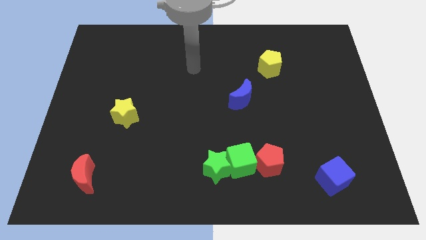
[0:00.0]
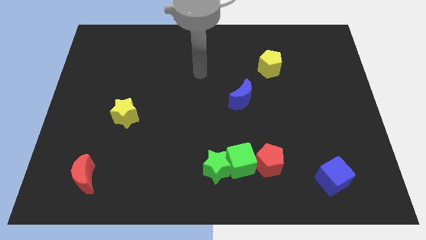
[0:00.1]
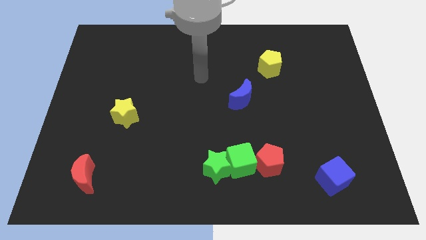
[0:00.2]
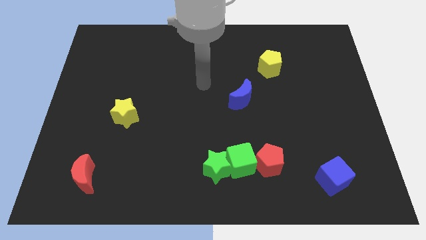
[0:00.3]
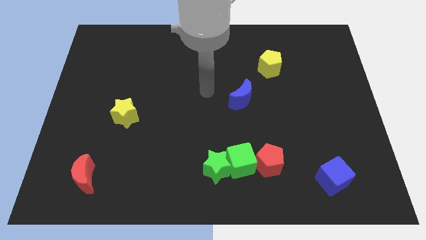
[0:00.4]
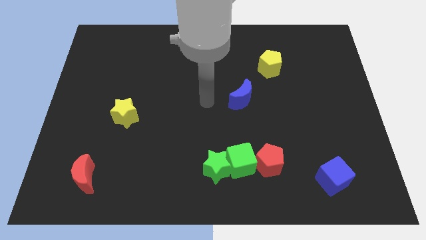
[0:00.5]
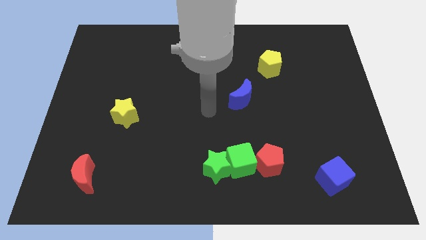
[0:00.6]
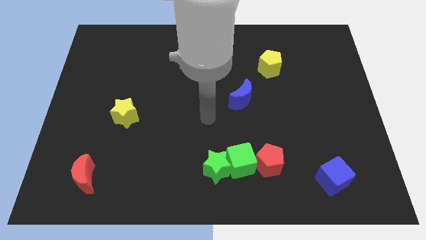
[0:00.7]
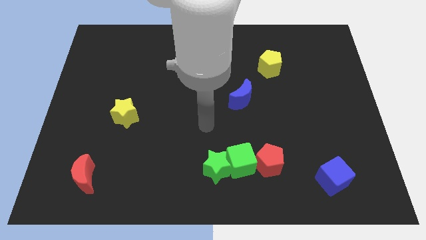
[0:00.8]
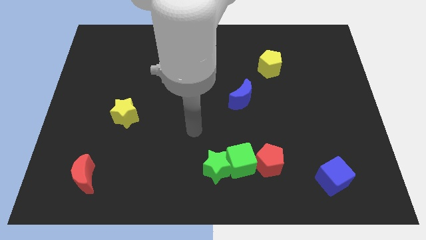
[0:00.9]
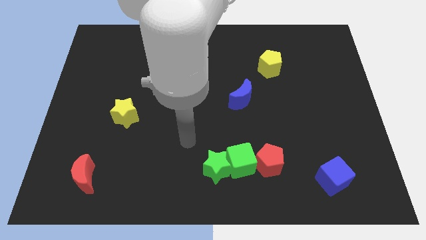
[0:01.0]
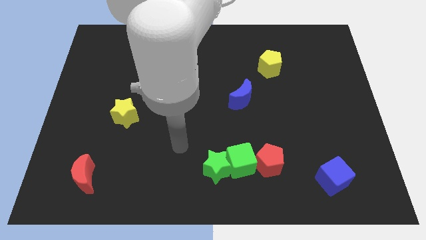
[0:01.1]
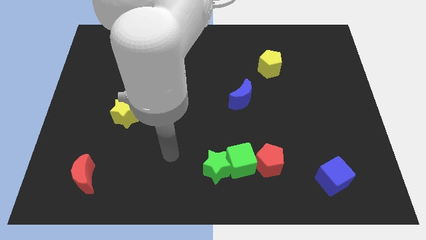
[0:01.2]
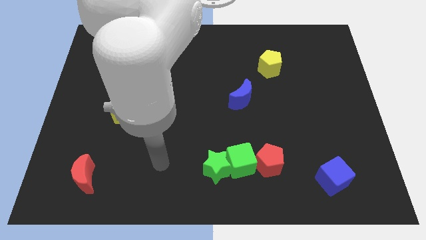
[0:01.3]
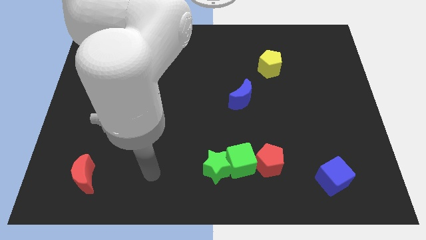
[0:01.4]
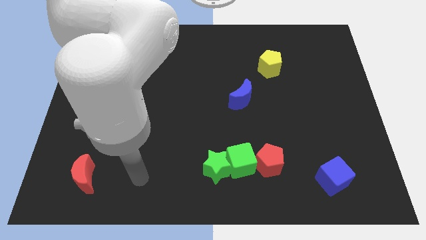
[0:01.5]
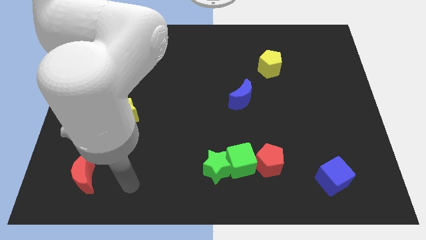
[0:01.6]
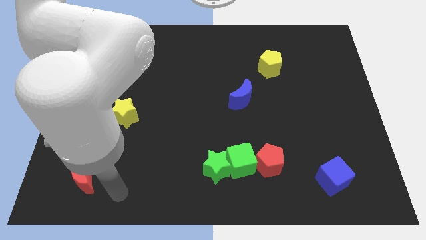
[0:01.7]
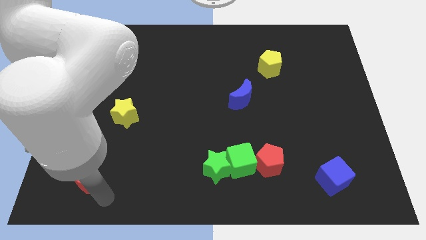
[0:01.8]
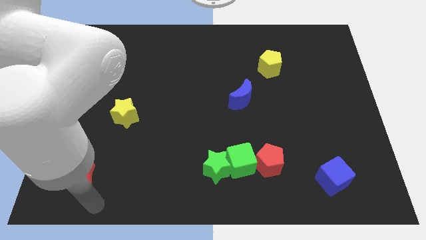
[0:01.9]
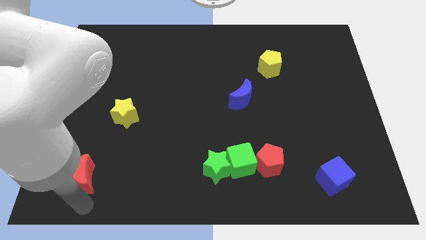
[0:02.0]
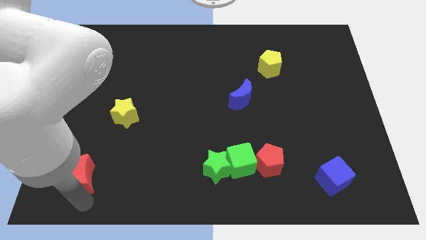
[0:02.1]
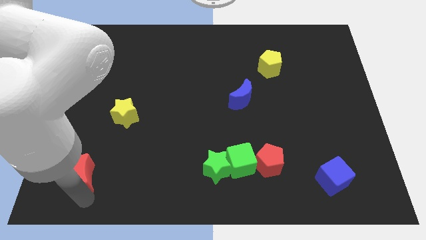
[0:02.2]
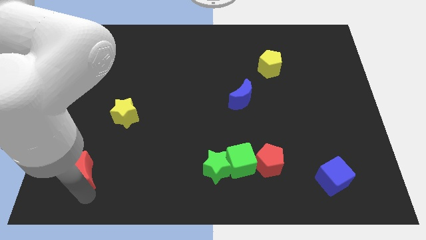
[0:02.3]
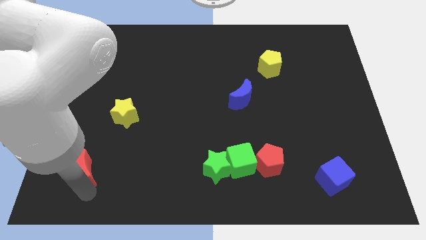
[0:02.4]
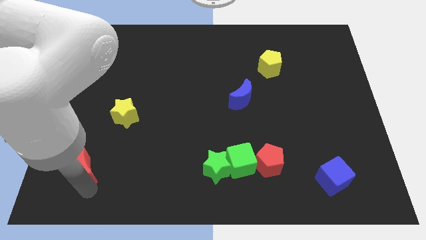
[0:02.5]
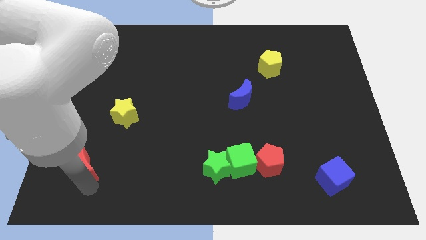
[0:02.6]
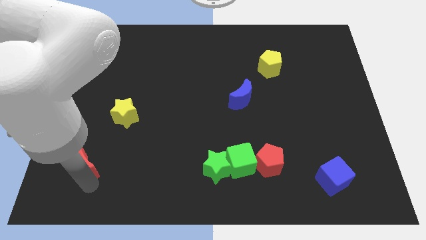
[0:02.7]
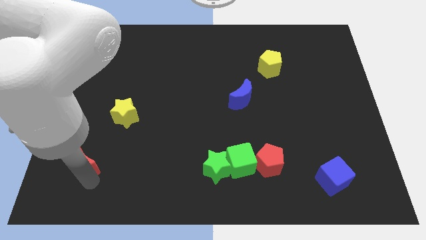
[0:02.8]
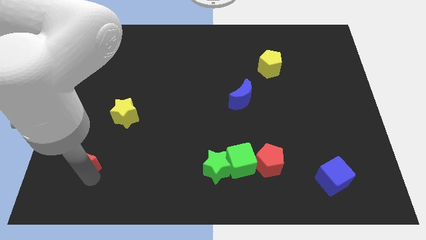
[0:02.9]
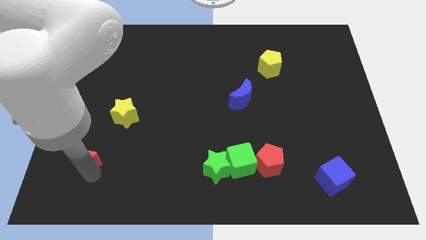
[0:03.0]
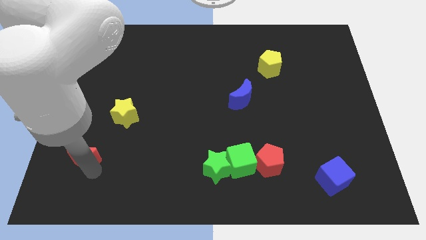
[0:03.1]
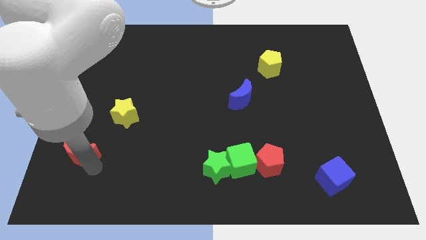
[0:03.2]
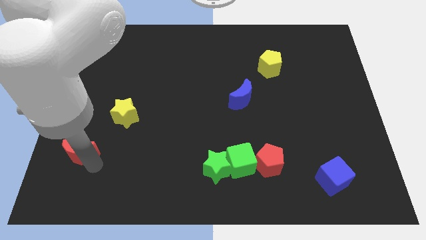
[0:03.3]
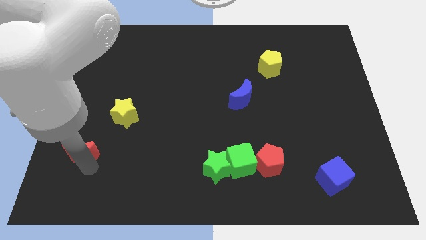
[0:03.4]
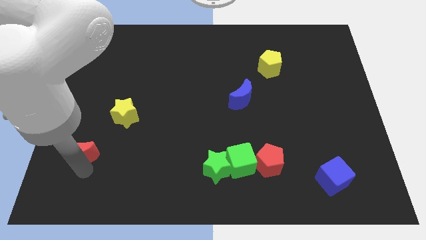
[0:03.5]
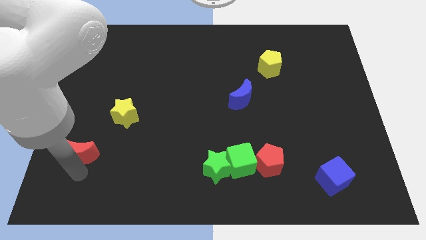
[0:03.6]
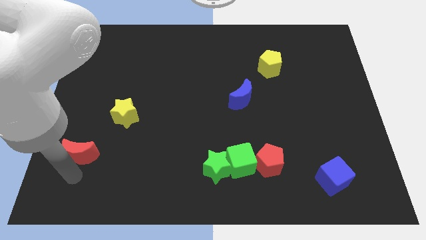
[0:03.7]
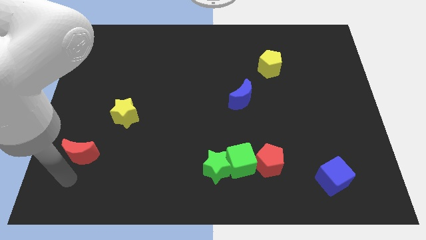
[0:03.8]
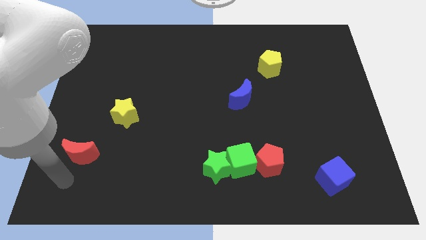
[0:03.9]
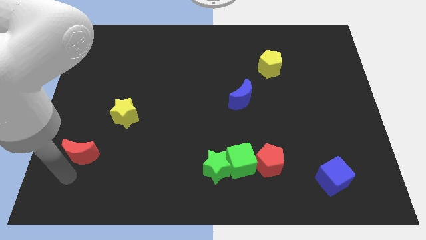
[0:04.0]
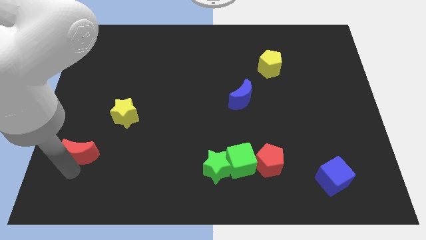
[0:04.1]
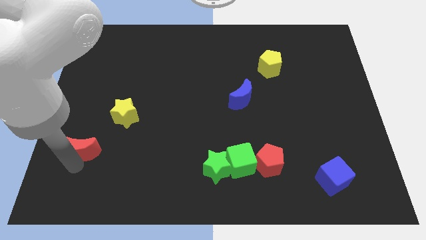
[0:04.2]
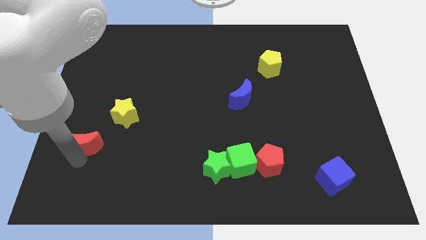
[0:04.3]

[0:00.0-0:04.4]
push the red moon a bit upwards

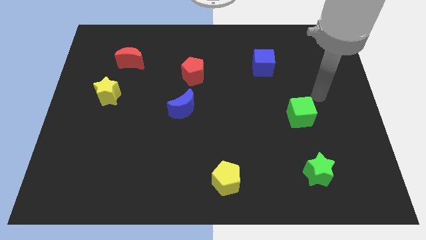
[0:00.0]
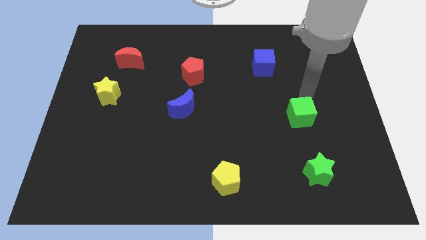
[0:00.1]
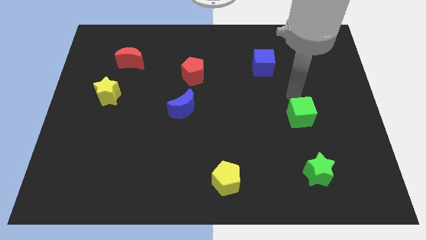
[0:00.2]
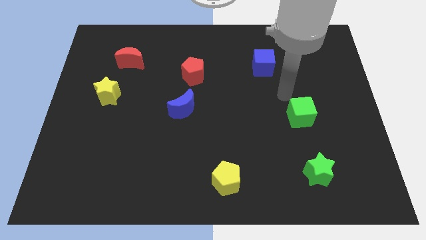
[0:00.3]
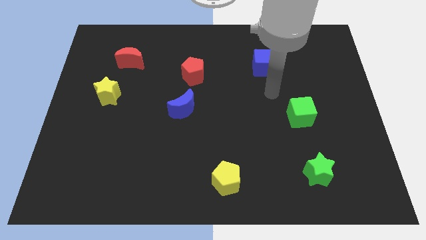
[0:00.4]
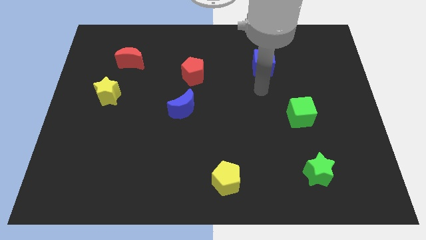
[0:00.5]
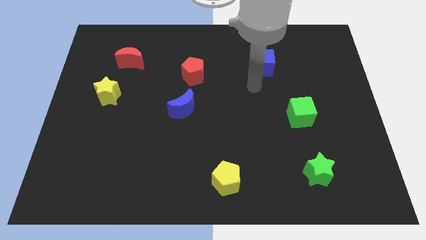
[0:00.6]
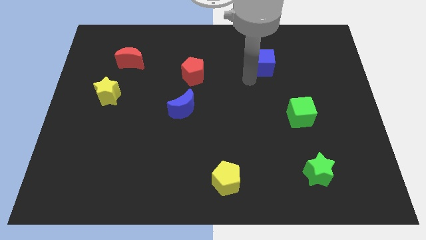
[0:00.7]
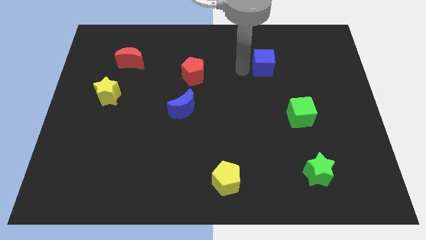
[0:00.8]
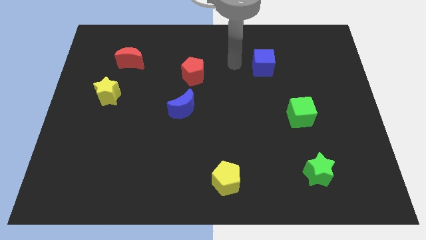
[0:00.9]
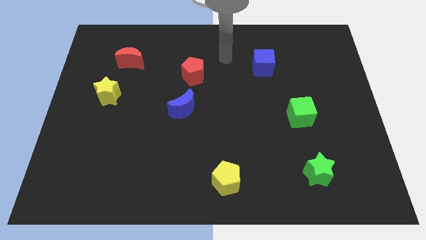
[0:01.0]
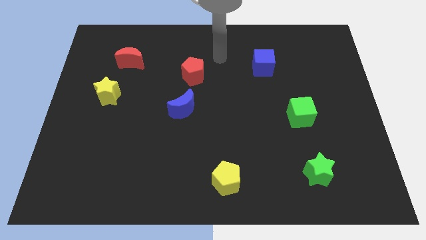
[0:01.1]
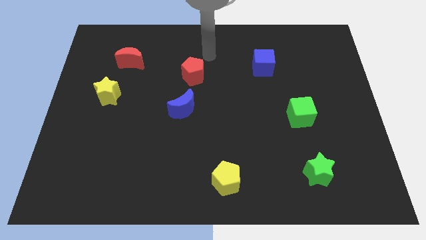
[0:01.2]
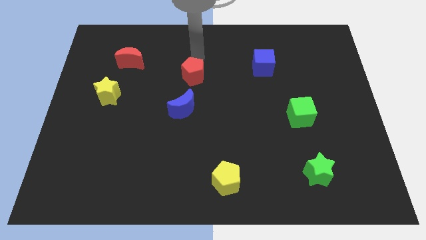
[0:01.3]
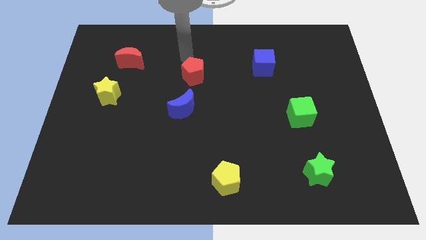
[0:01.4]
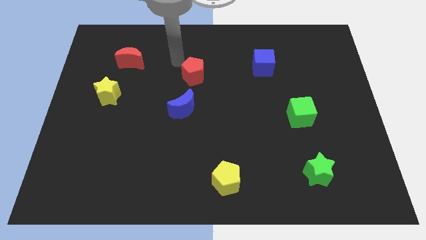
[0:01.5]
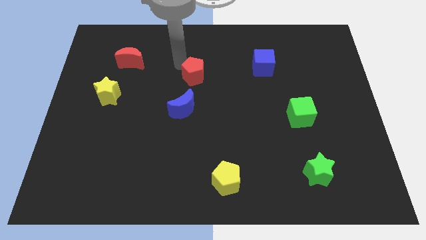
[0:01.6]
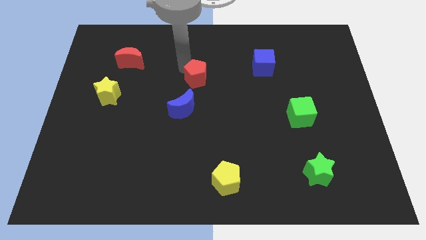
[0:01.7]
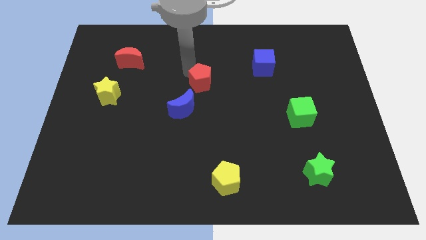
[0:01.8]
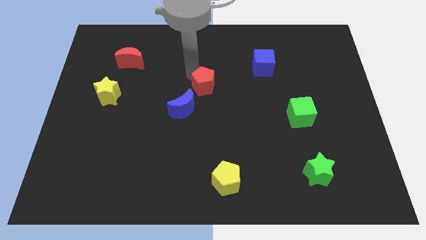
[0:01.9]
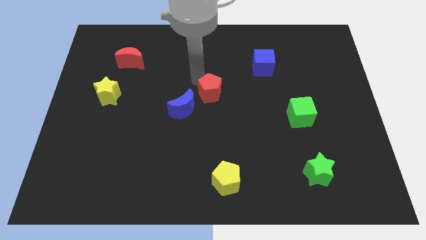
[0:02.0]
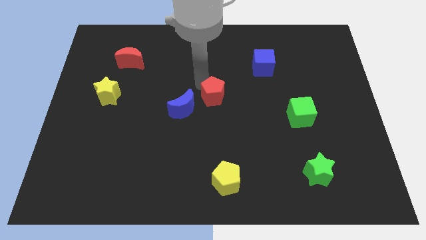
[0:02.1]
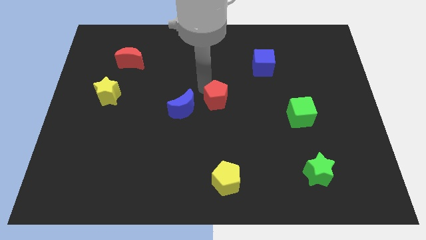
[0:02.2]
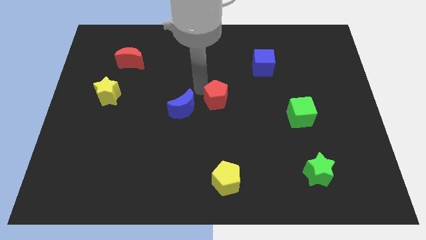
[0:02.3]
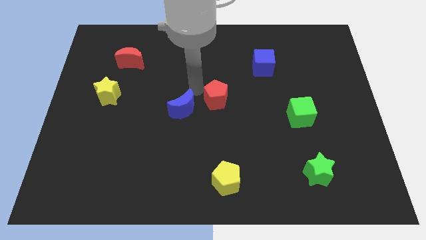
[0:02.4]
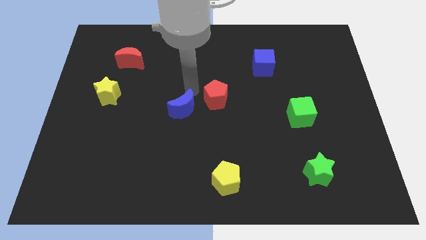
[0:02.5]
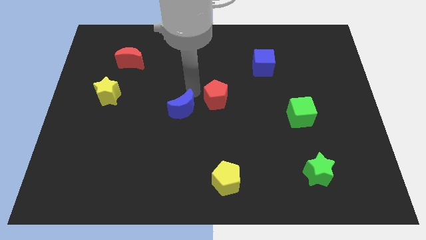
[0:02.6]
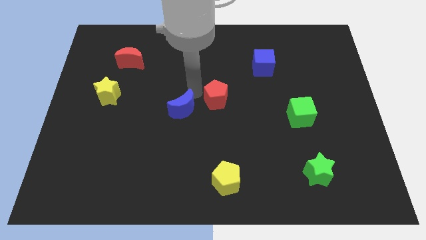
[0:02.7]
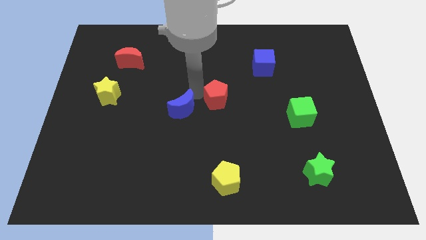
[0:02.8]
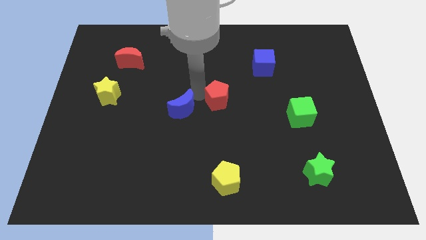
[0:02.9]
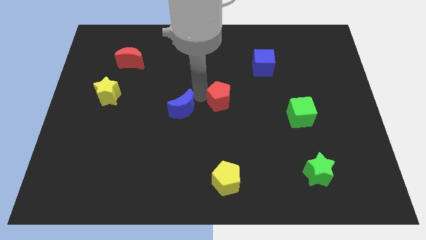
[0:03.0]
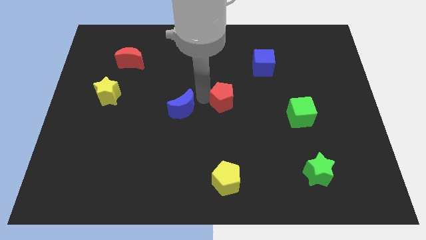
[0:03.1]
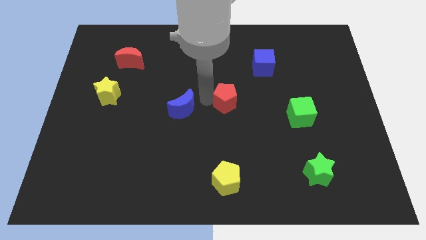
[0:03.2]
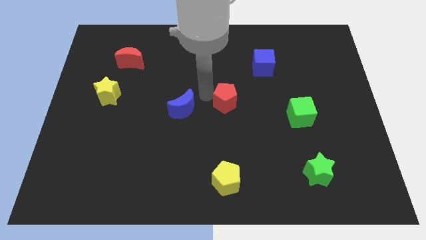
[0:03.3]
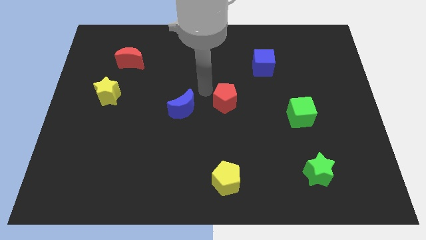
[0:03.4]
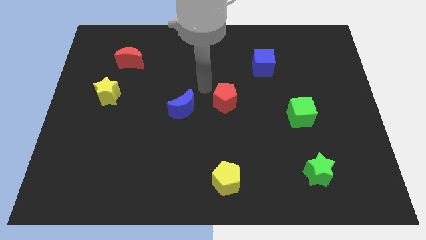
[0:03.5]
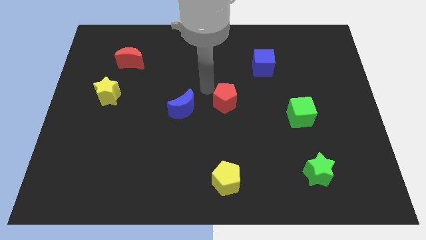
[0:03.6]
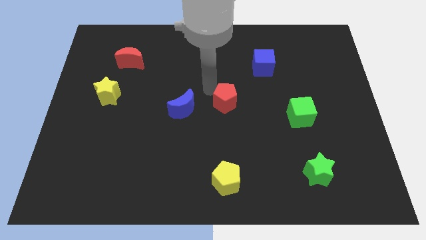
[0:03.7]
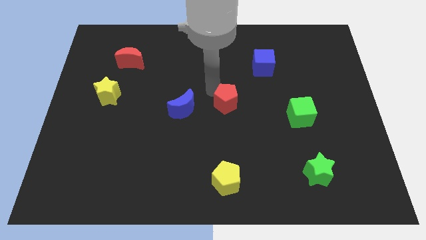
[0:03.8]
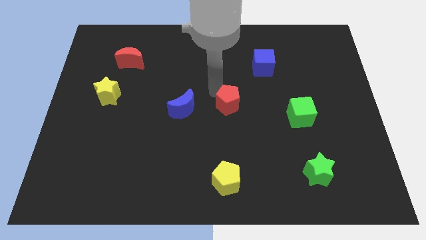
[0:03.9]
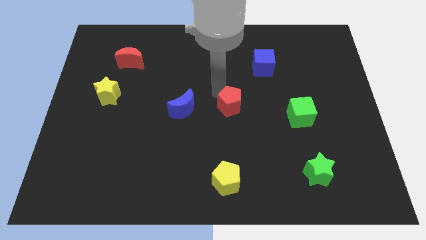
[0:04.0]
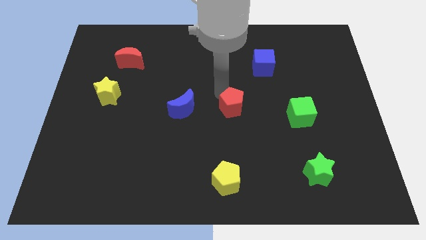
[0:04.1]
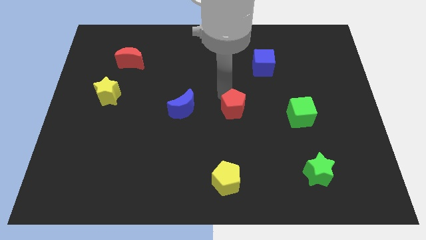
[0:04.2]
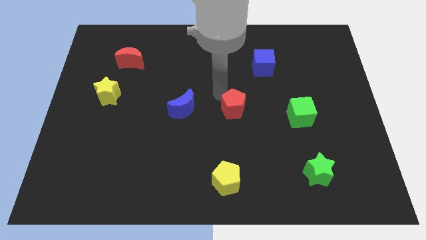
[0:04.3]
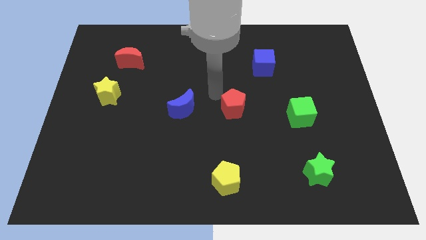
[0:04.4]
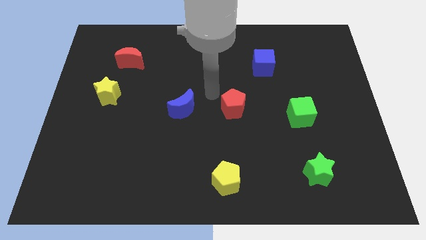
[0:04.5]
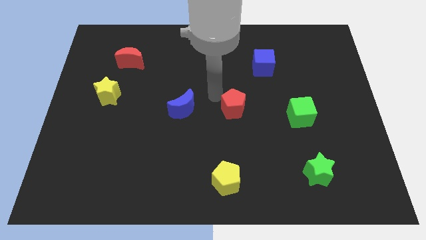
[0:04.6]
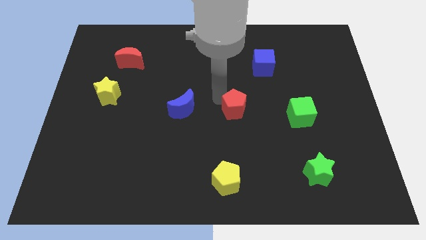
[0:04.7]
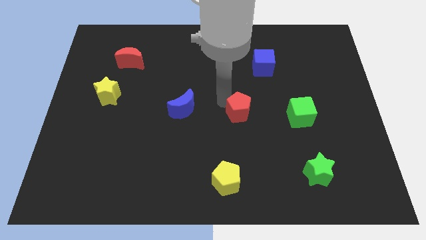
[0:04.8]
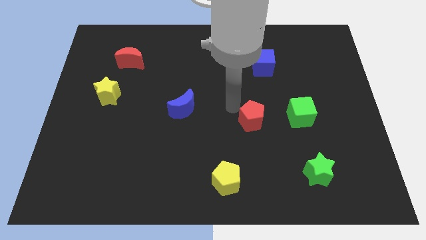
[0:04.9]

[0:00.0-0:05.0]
slide the red pentagon diagonally downwards and right
